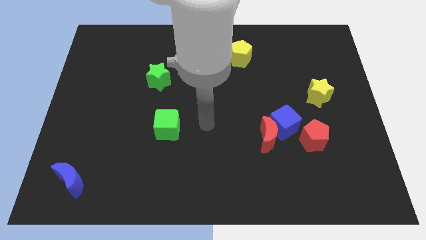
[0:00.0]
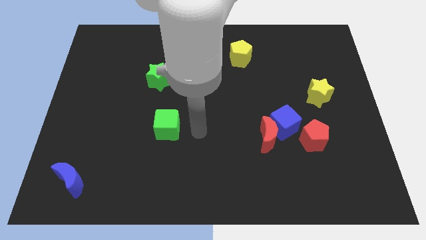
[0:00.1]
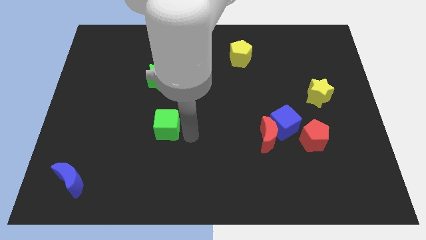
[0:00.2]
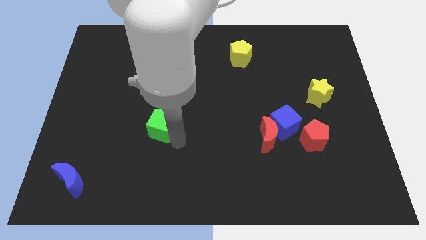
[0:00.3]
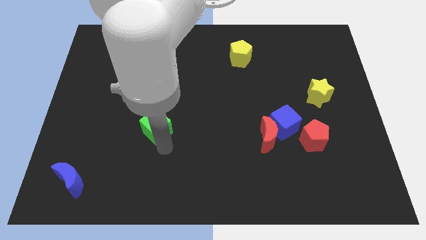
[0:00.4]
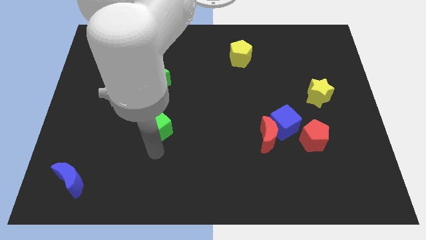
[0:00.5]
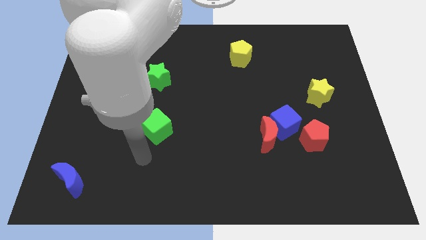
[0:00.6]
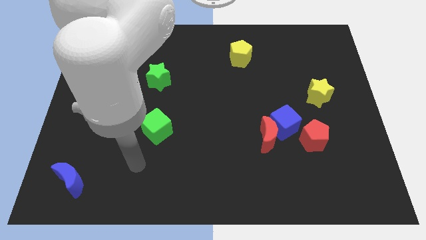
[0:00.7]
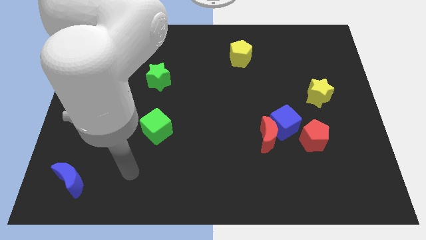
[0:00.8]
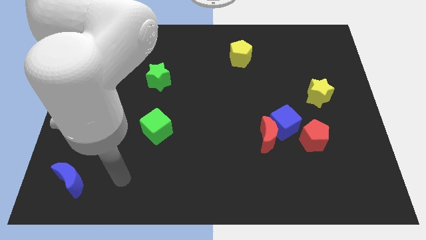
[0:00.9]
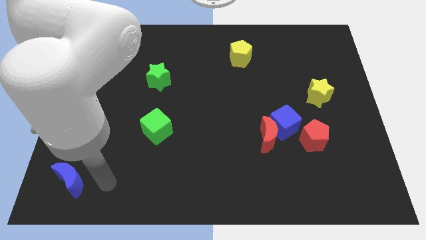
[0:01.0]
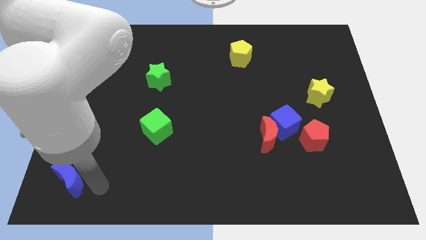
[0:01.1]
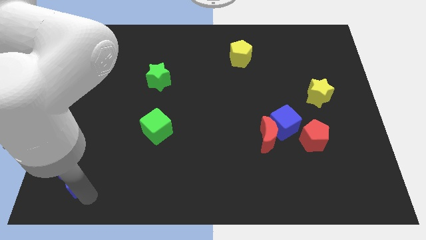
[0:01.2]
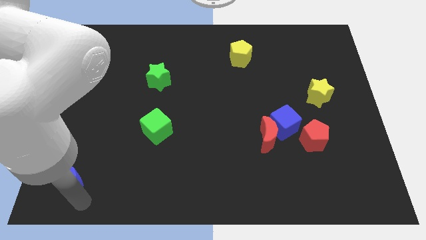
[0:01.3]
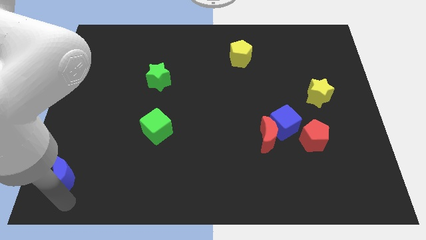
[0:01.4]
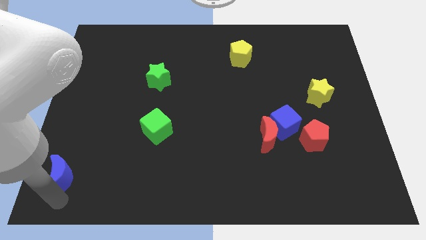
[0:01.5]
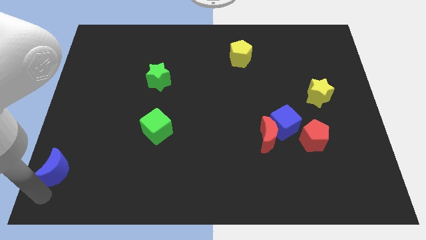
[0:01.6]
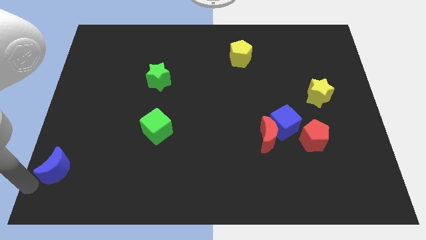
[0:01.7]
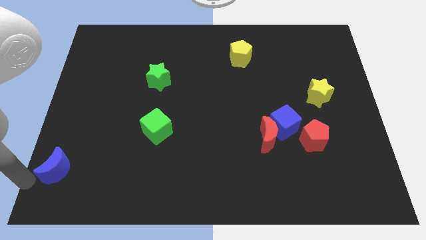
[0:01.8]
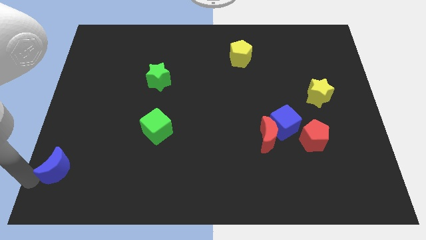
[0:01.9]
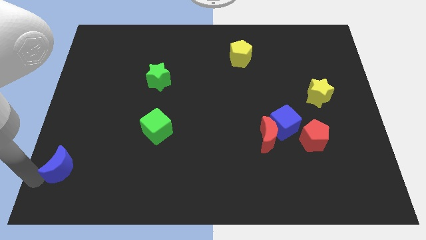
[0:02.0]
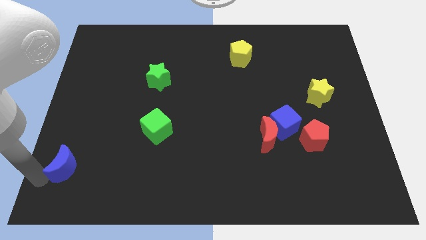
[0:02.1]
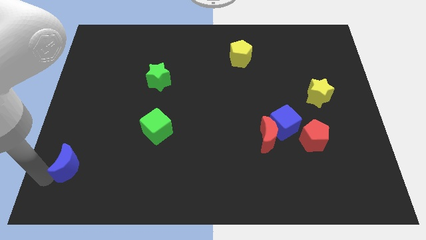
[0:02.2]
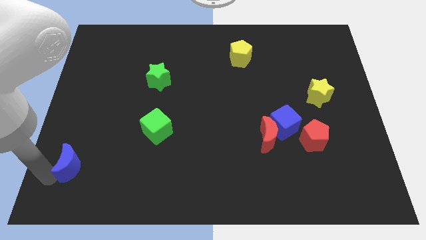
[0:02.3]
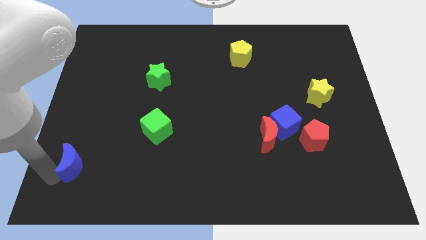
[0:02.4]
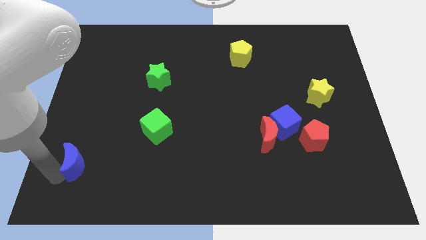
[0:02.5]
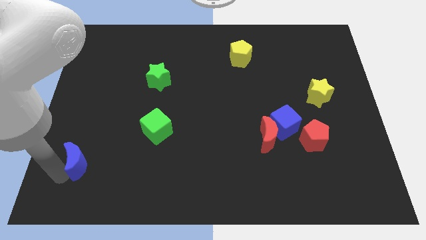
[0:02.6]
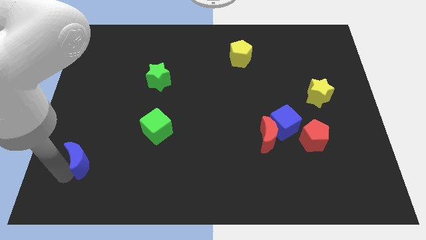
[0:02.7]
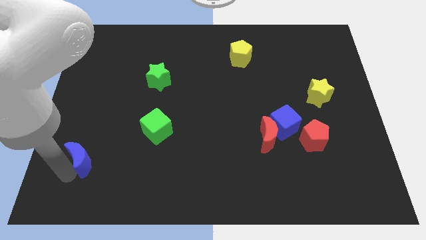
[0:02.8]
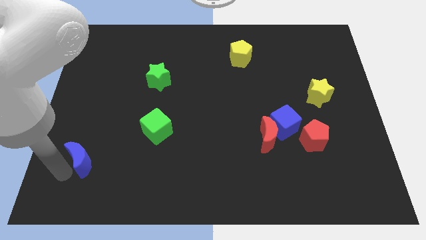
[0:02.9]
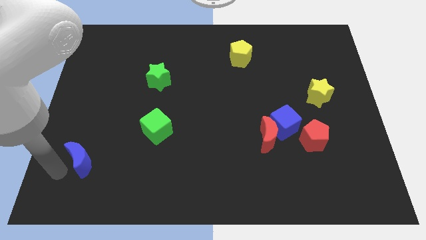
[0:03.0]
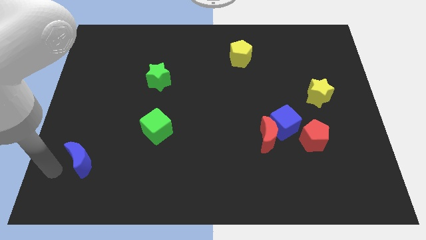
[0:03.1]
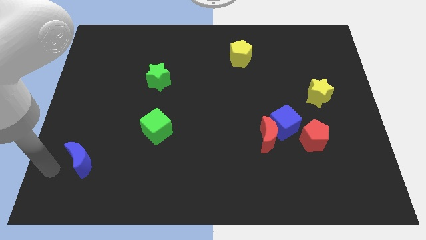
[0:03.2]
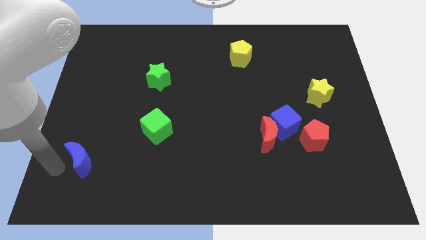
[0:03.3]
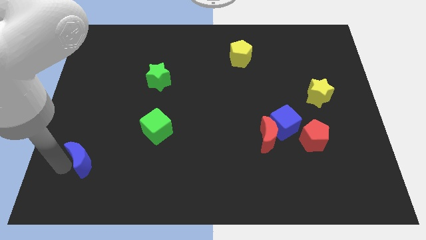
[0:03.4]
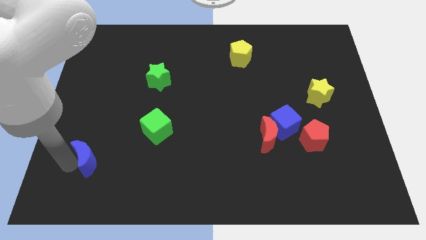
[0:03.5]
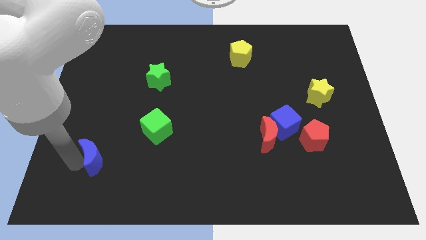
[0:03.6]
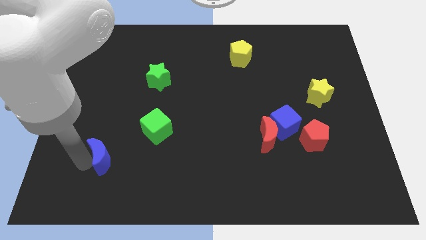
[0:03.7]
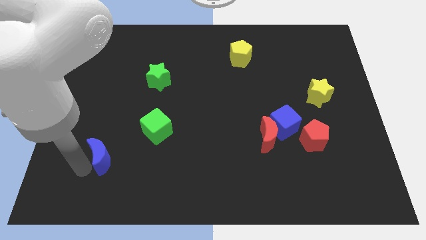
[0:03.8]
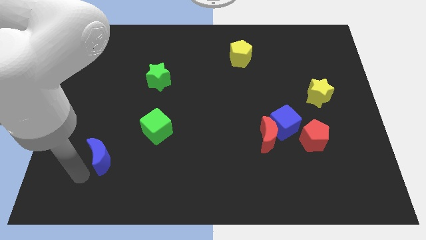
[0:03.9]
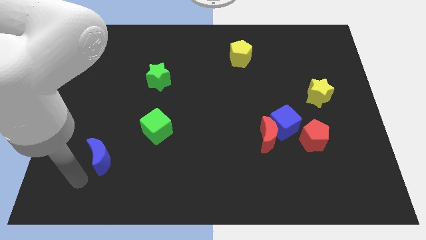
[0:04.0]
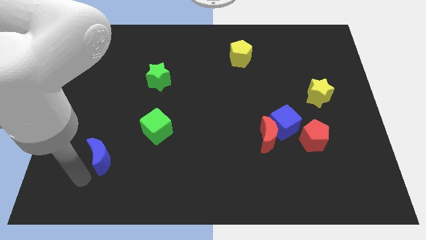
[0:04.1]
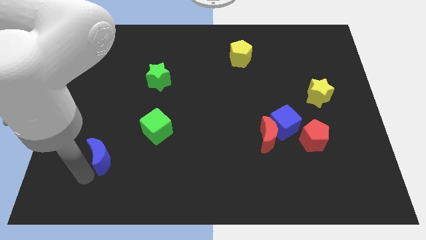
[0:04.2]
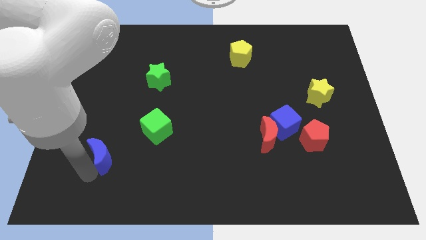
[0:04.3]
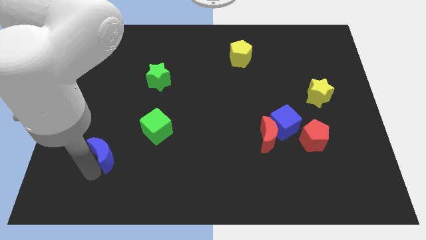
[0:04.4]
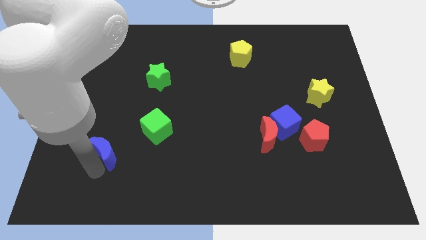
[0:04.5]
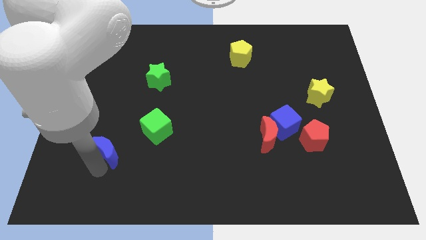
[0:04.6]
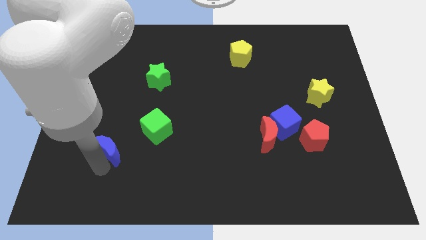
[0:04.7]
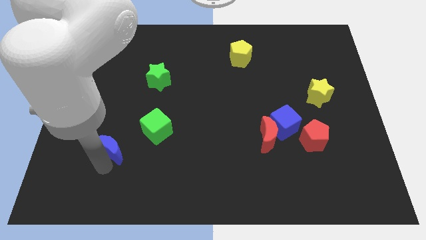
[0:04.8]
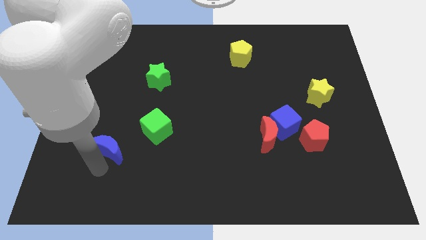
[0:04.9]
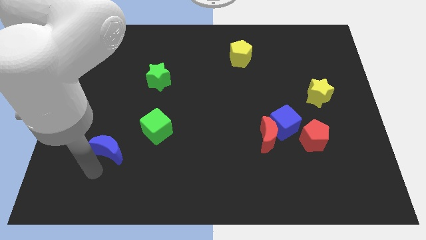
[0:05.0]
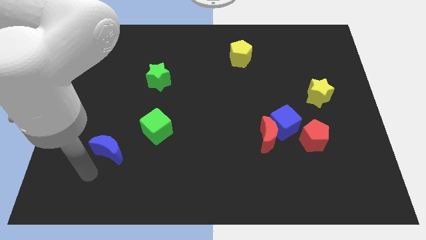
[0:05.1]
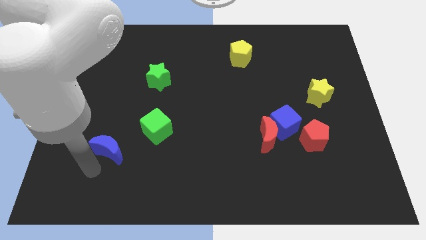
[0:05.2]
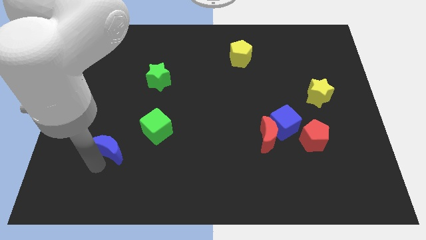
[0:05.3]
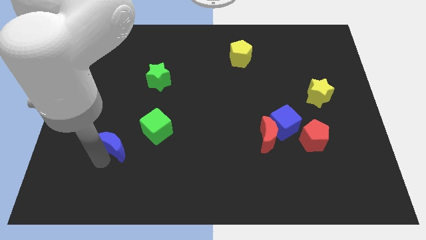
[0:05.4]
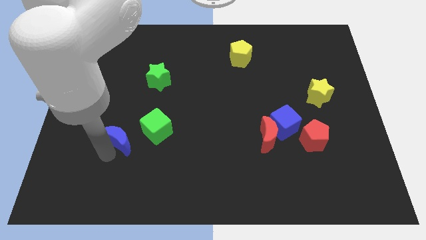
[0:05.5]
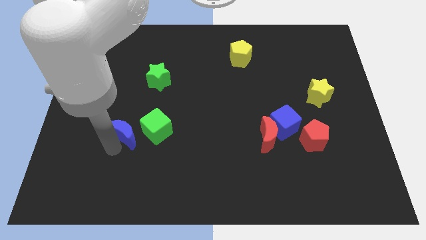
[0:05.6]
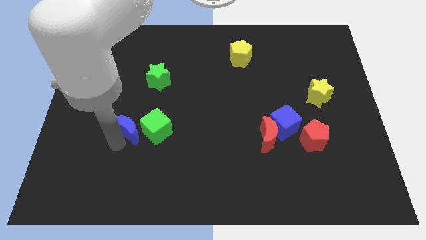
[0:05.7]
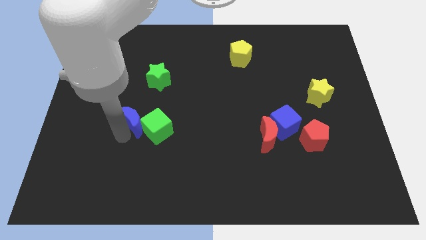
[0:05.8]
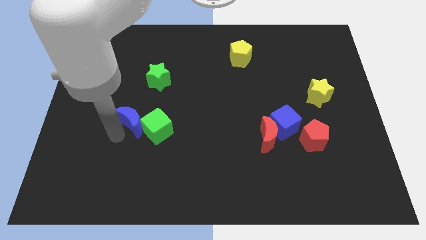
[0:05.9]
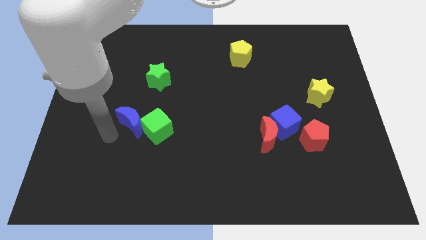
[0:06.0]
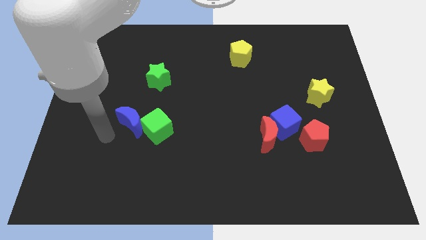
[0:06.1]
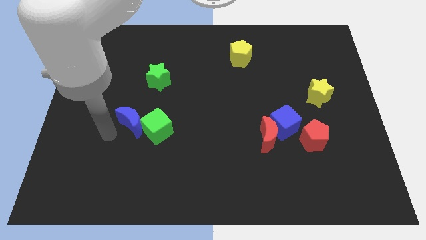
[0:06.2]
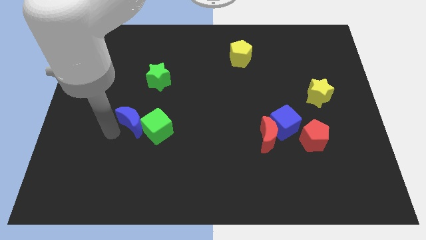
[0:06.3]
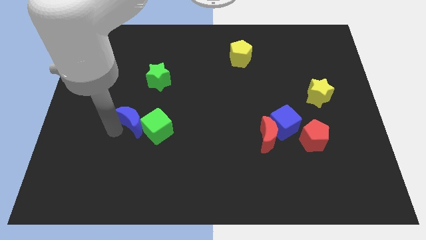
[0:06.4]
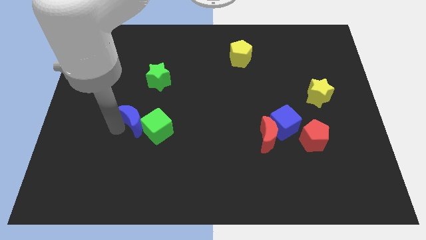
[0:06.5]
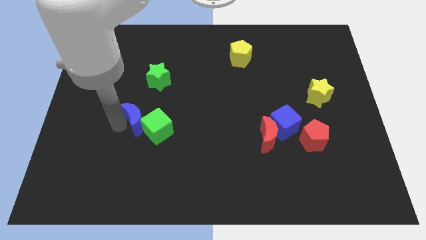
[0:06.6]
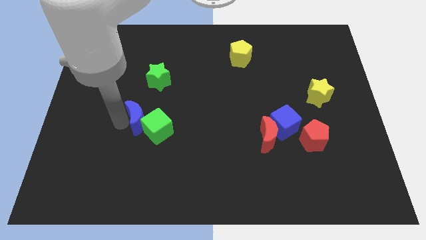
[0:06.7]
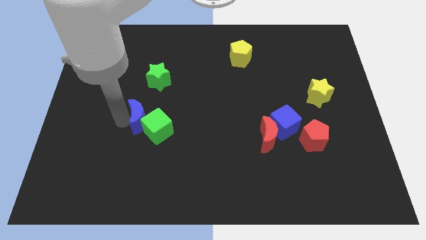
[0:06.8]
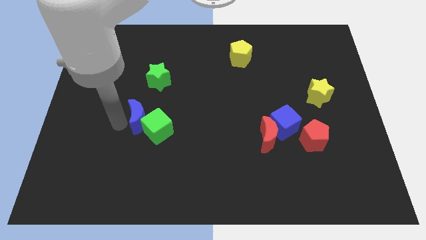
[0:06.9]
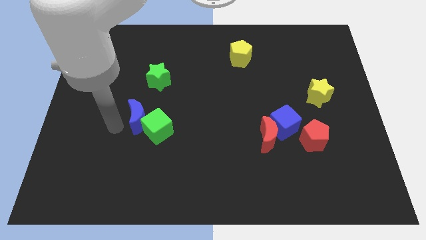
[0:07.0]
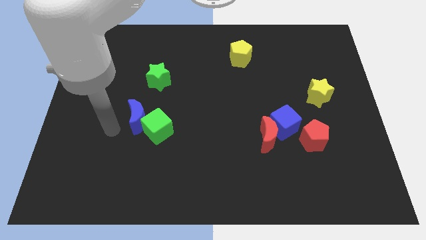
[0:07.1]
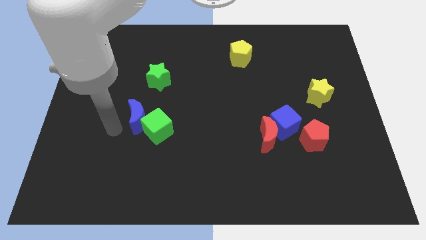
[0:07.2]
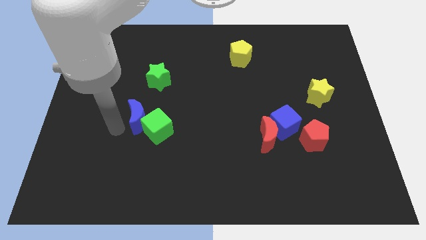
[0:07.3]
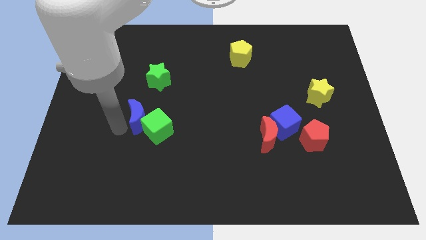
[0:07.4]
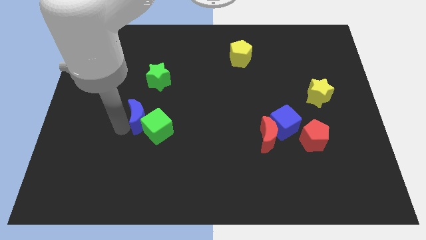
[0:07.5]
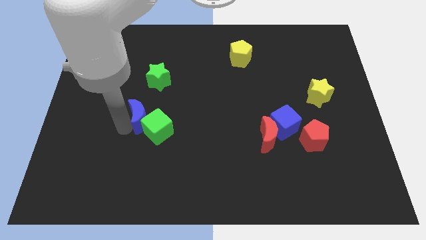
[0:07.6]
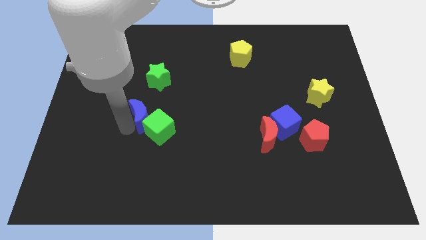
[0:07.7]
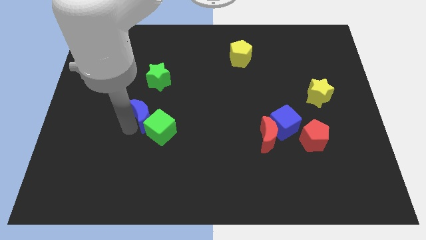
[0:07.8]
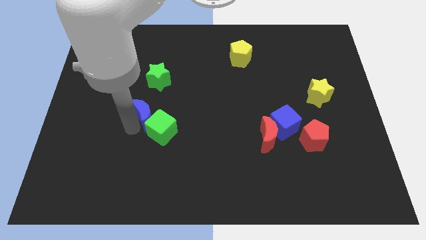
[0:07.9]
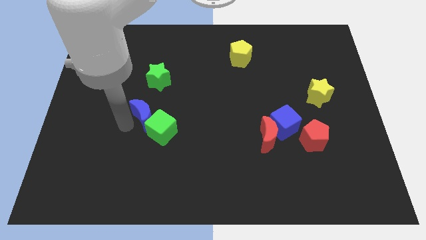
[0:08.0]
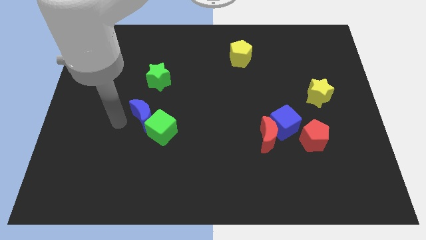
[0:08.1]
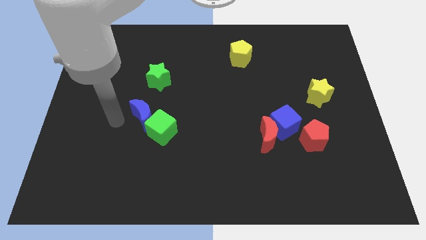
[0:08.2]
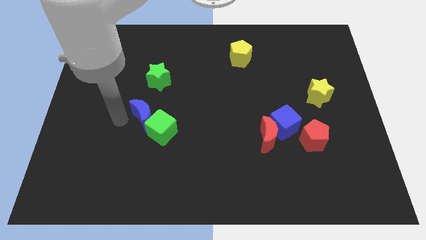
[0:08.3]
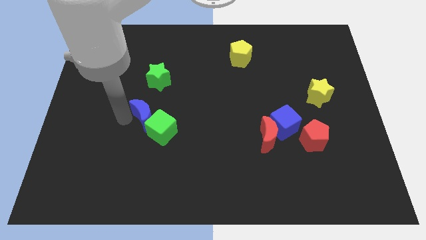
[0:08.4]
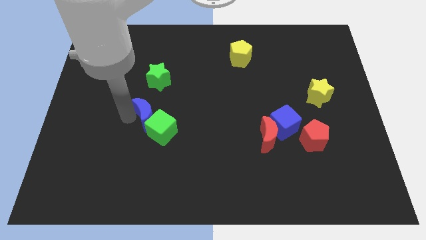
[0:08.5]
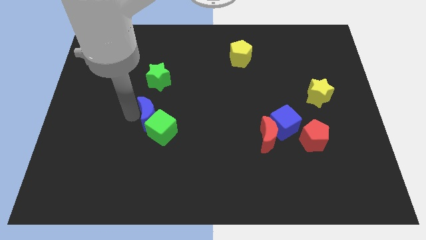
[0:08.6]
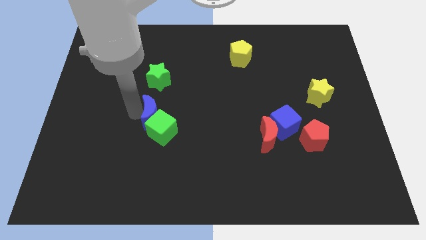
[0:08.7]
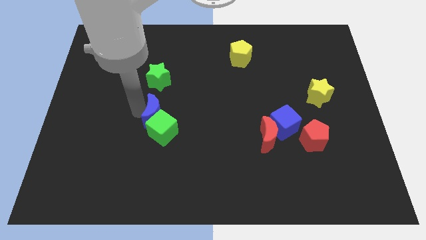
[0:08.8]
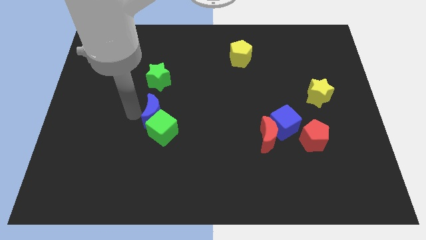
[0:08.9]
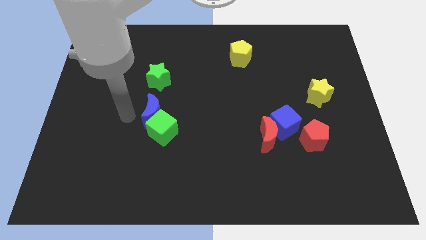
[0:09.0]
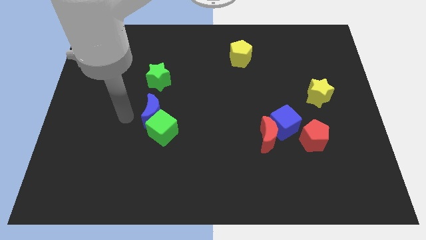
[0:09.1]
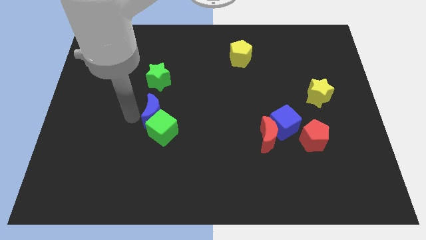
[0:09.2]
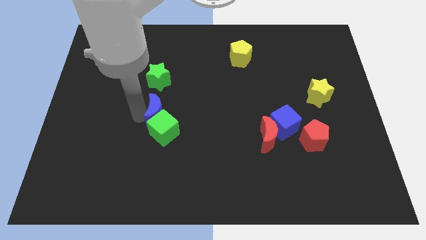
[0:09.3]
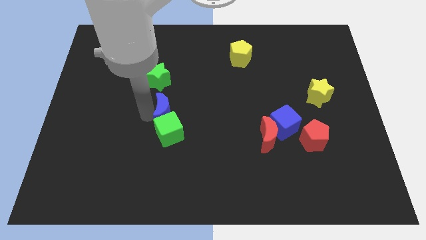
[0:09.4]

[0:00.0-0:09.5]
move the blue moon to the top right of the green cube
